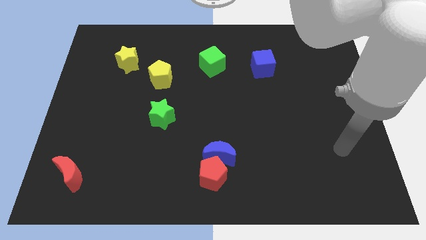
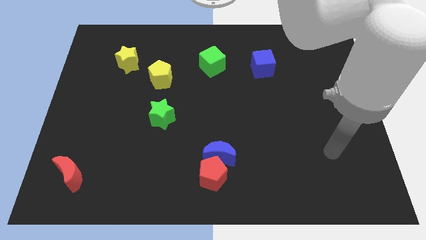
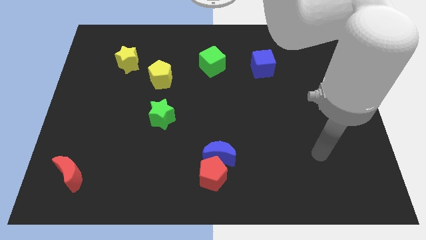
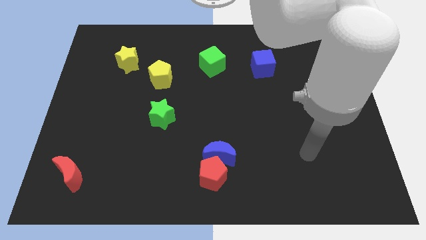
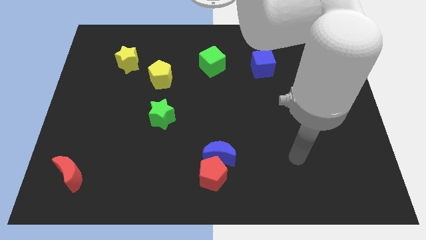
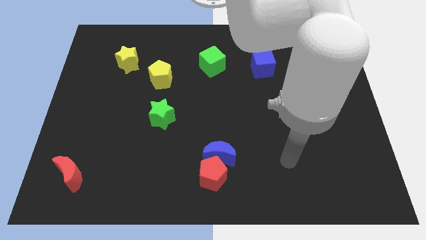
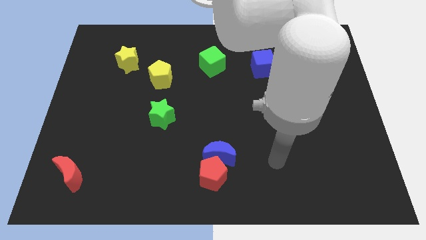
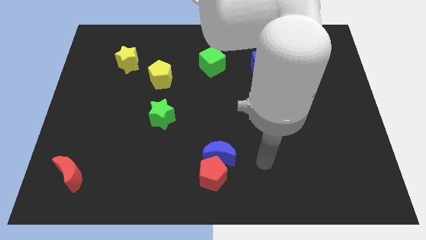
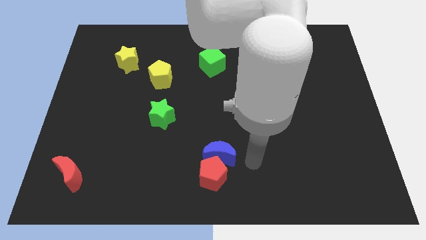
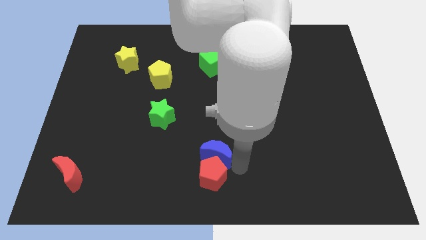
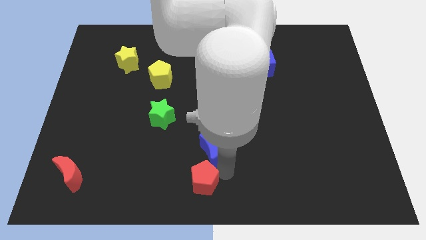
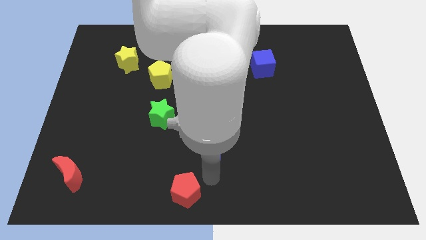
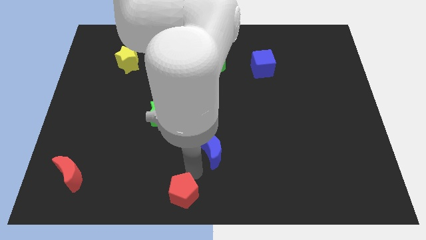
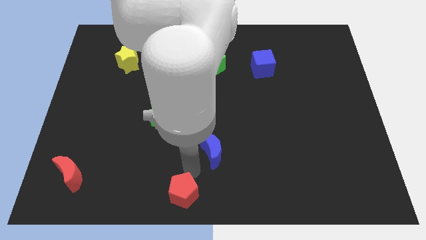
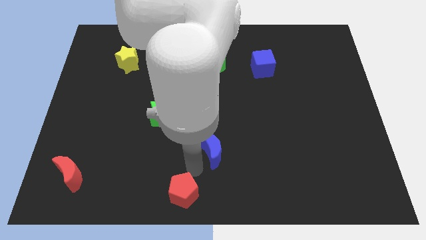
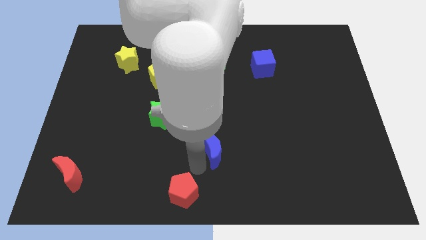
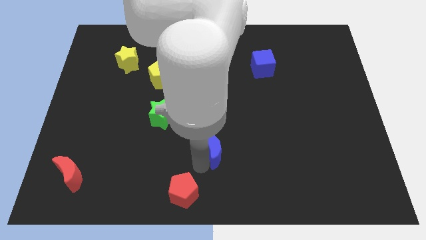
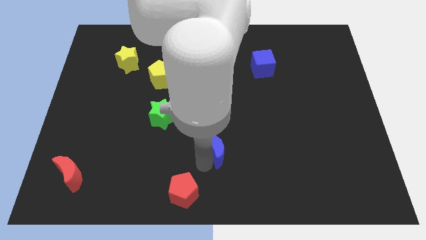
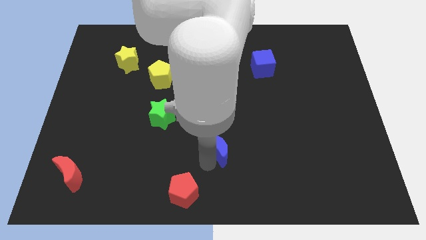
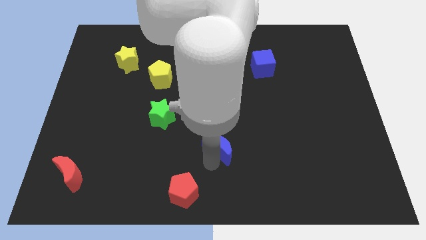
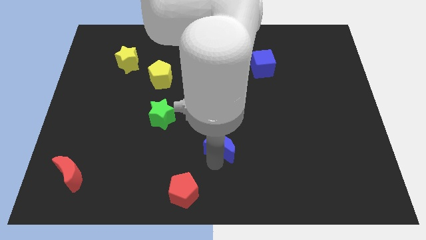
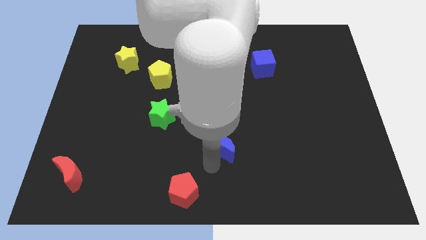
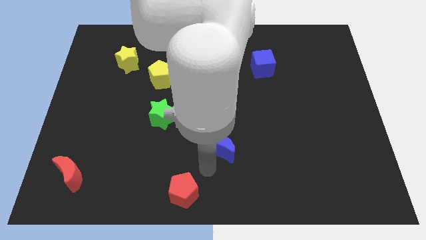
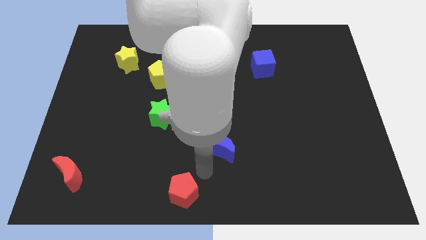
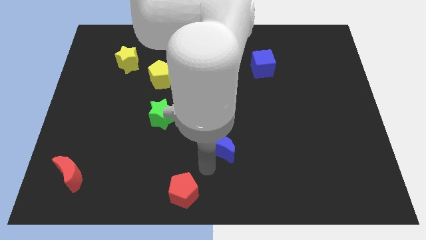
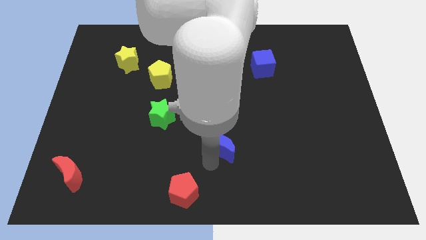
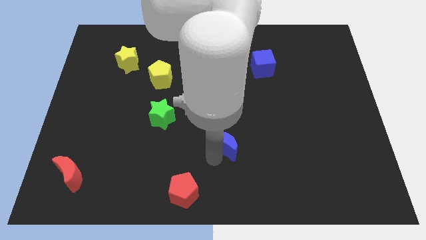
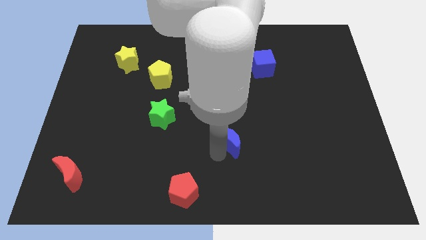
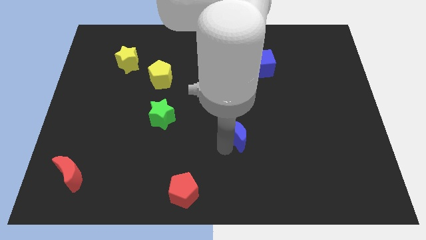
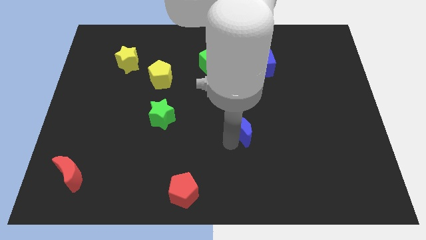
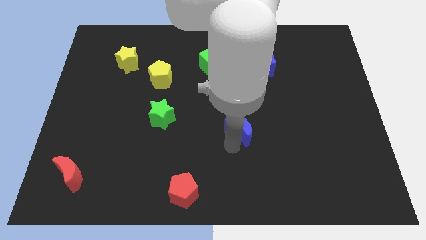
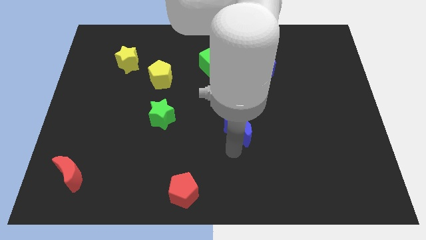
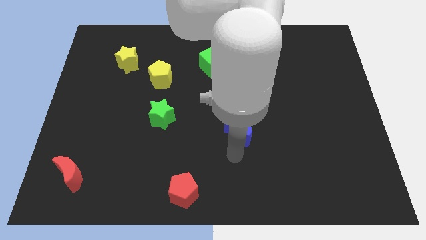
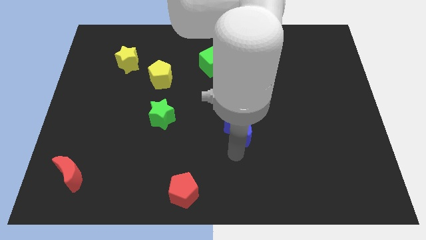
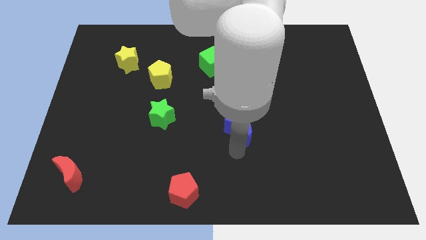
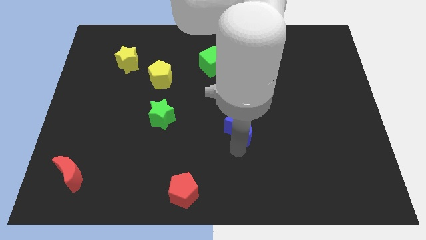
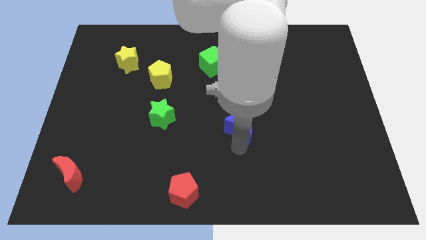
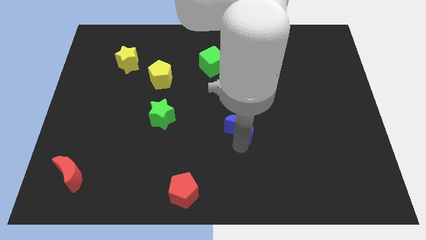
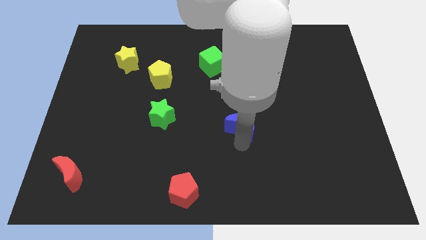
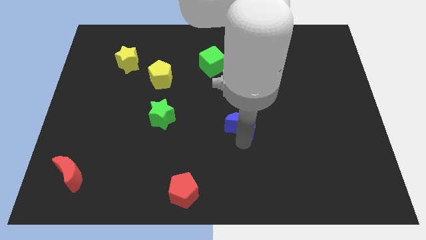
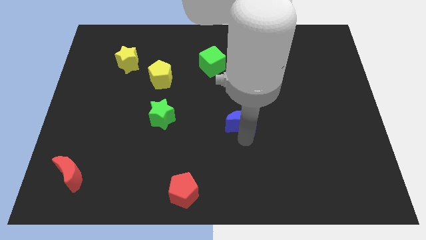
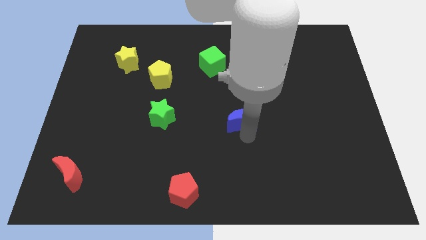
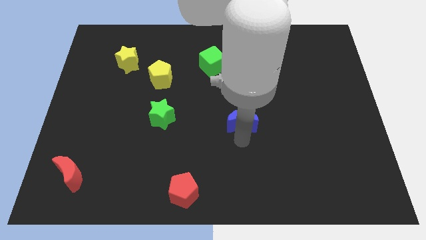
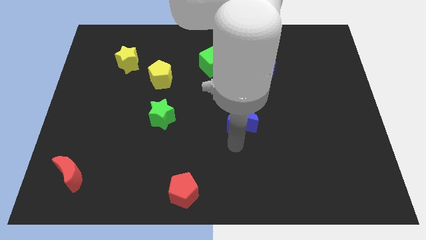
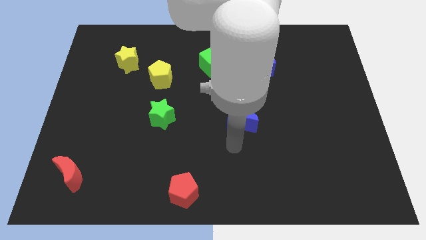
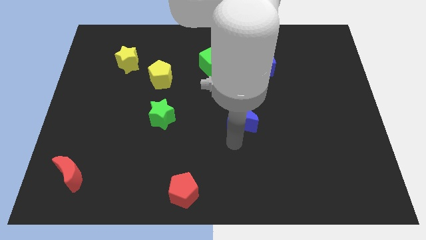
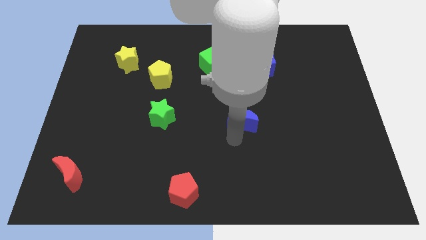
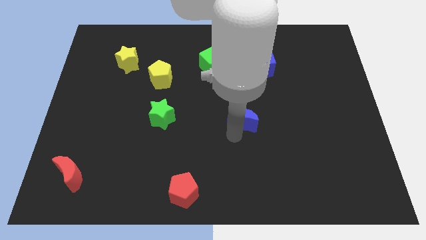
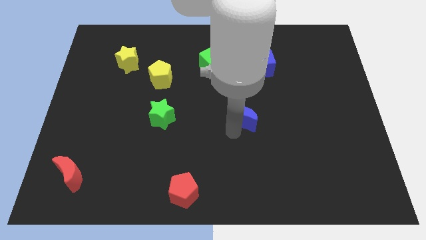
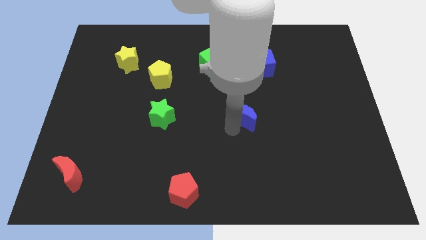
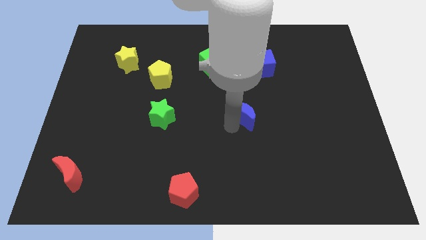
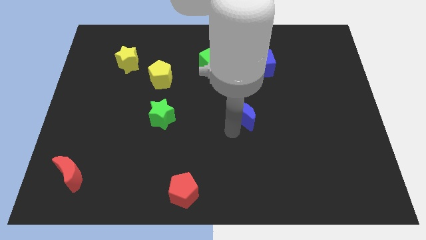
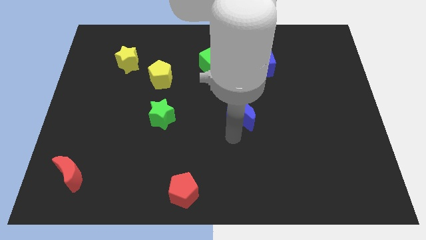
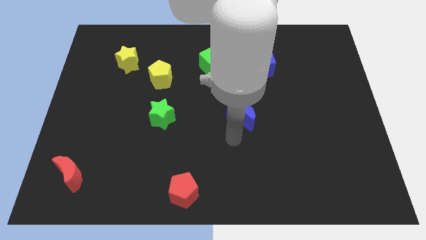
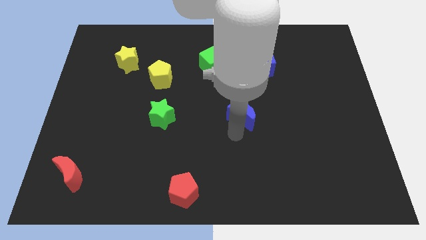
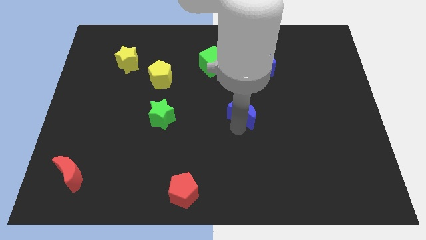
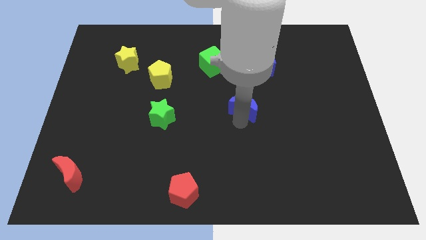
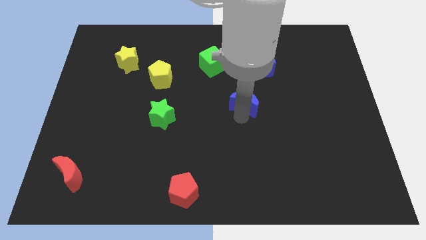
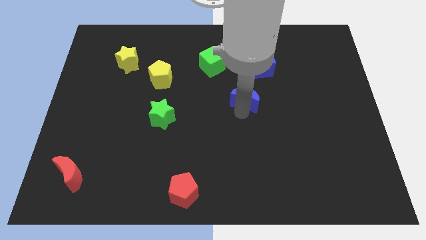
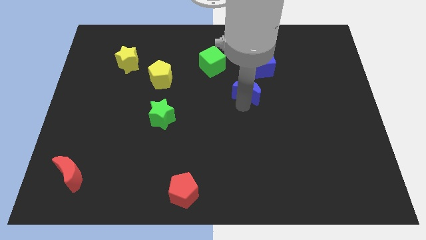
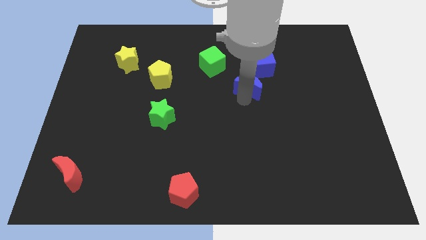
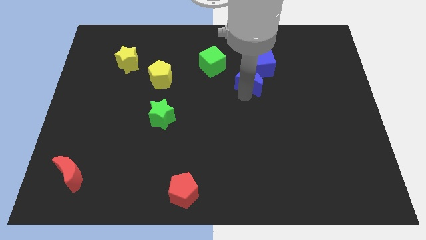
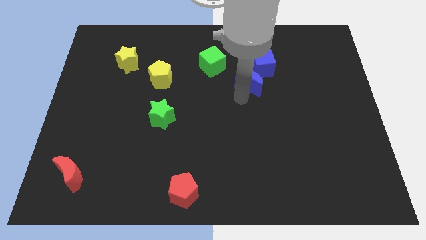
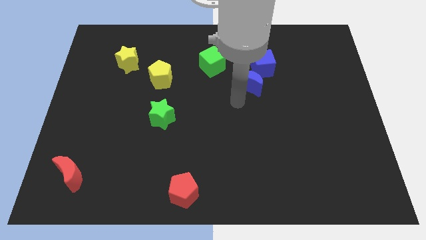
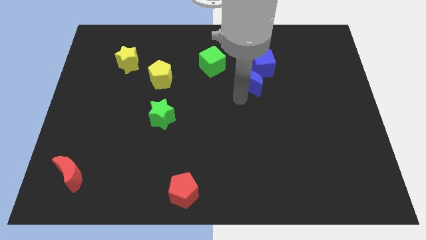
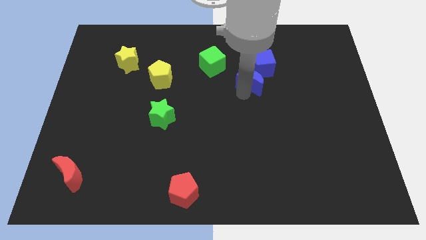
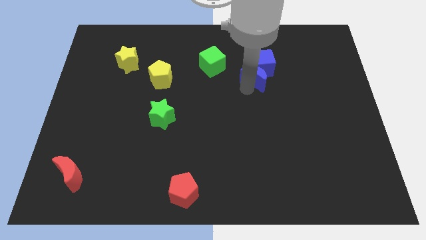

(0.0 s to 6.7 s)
move the blue moon next to the blue cube
